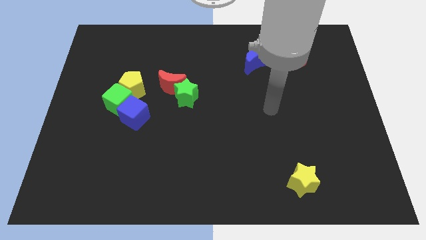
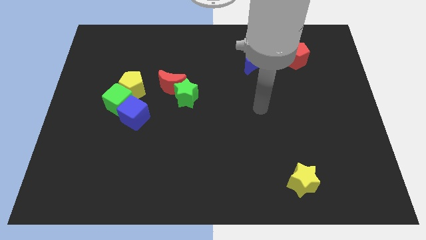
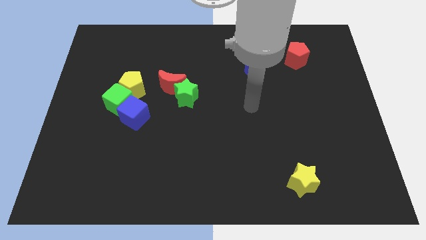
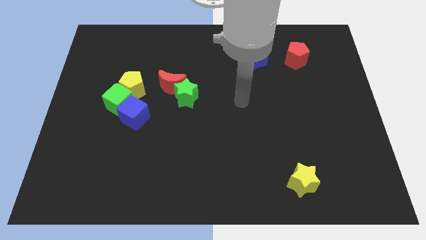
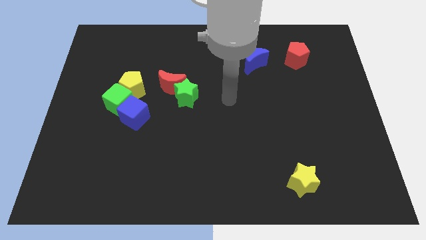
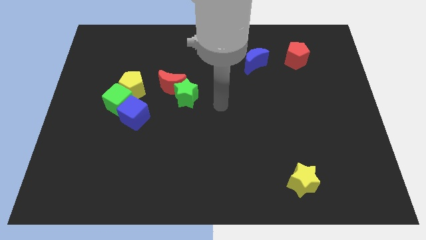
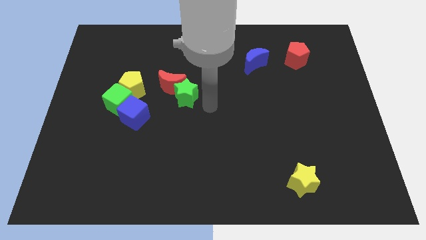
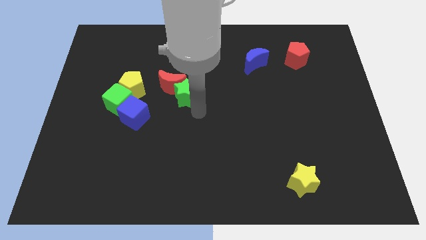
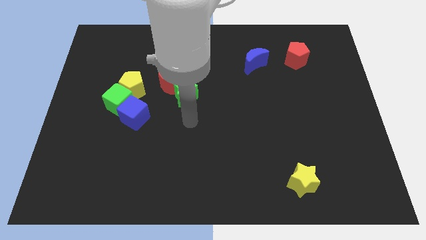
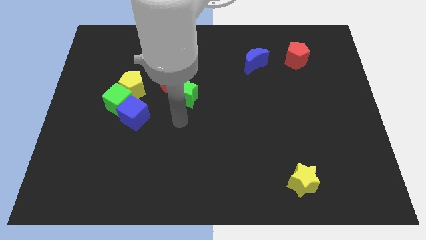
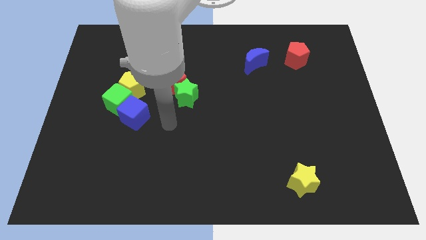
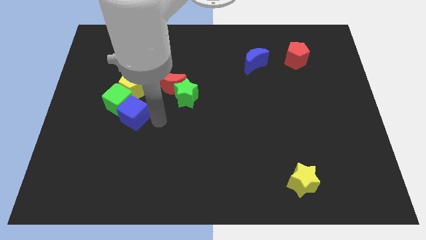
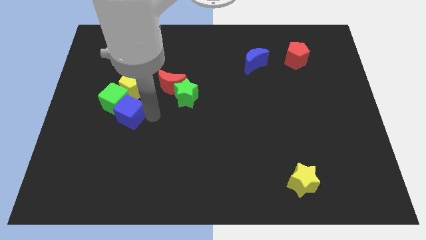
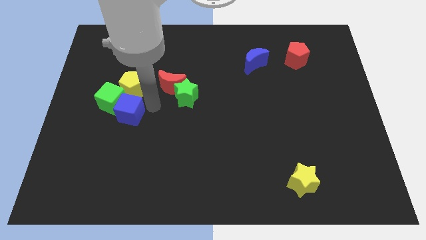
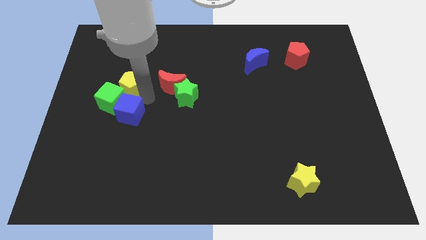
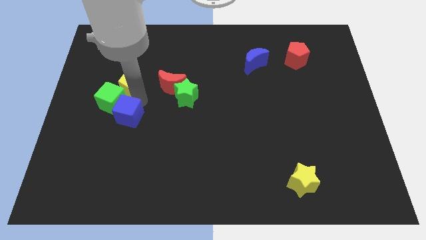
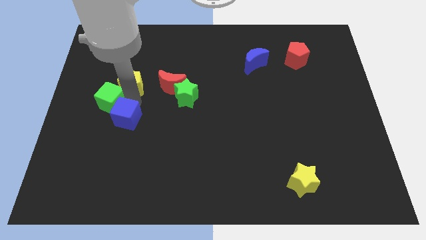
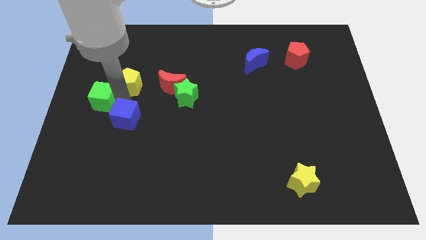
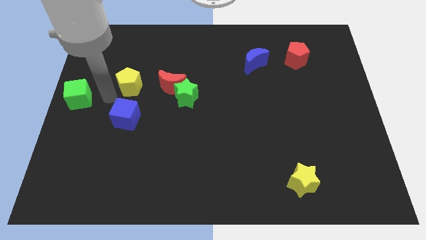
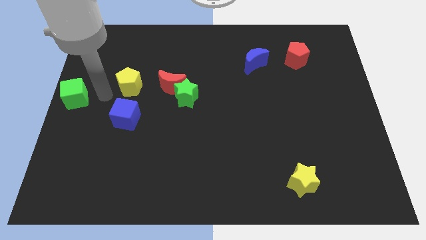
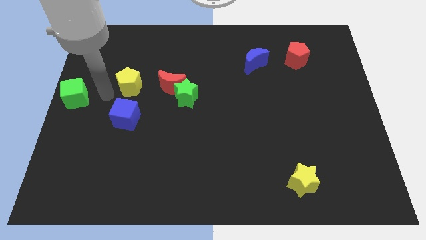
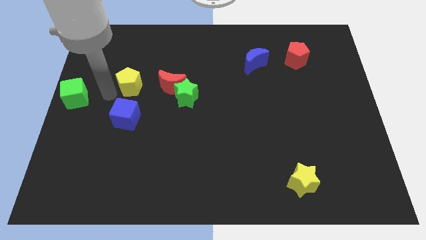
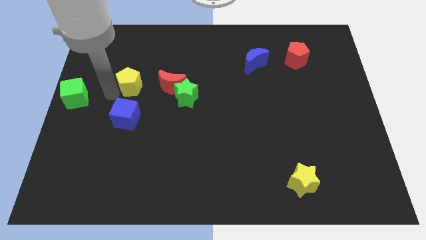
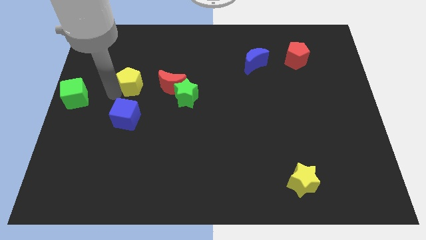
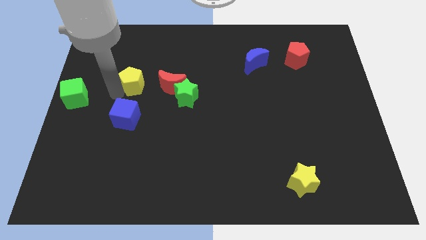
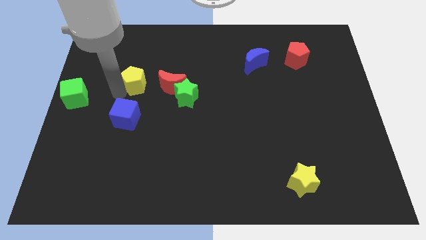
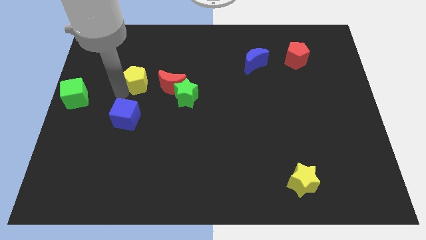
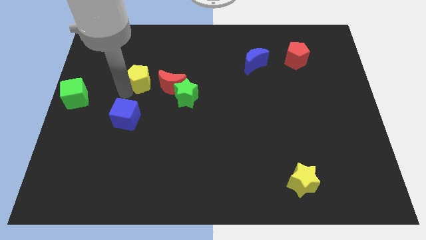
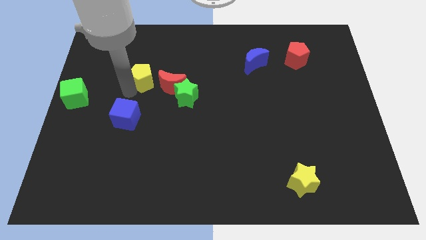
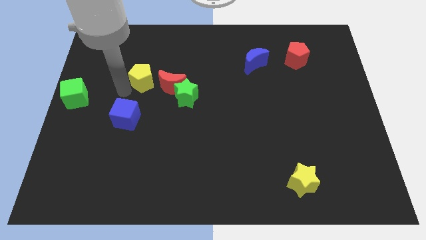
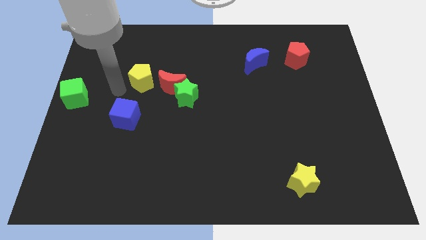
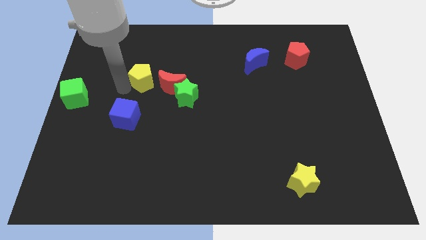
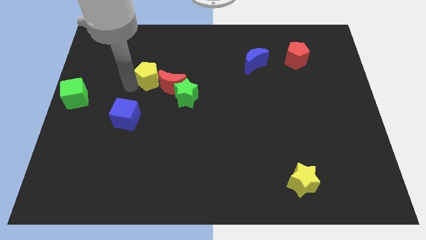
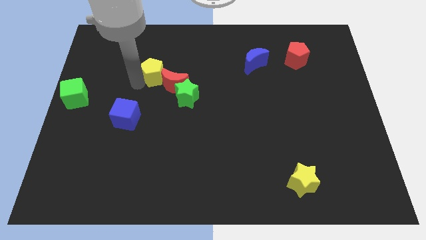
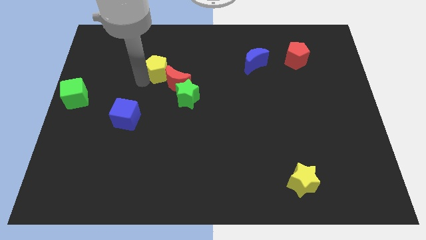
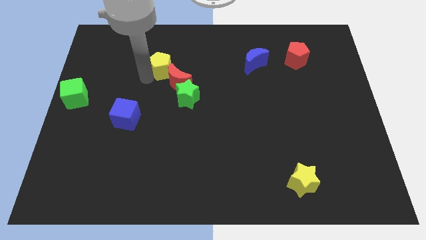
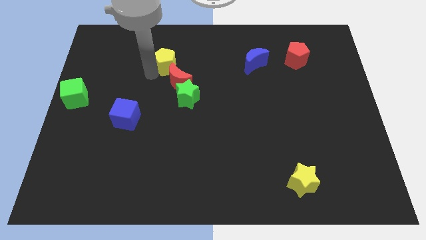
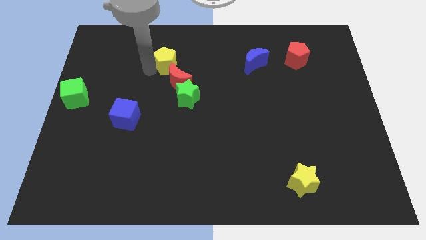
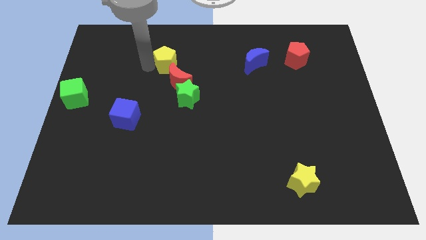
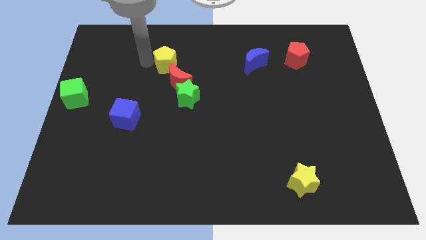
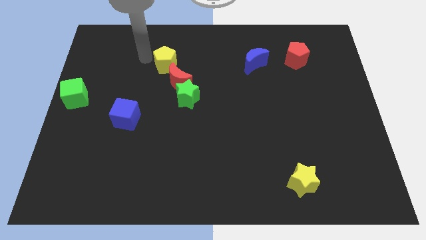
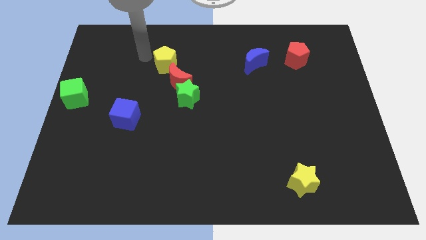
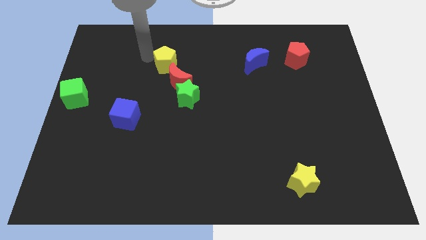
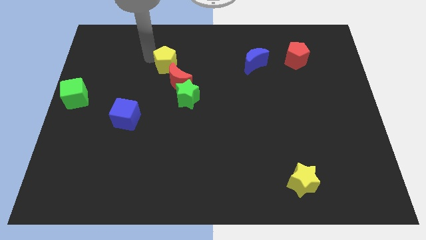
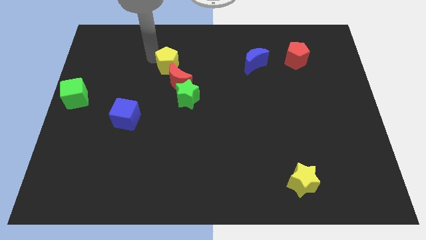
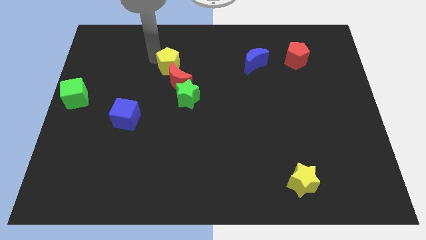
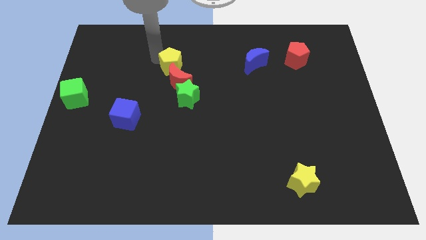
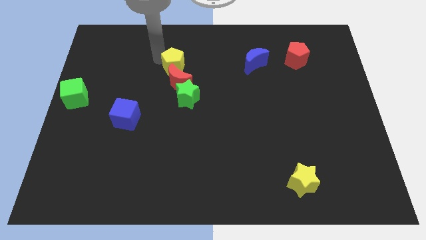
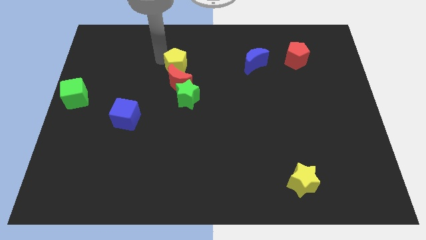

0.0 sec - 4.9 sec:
slide the yellow pentagon slightly right

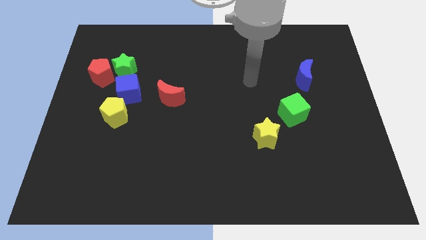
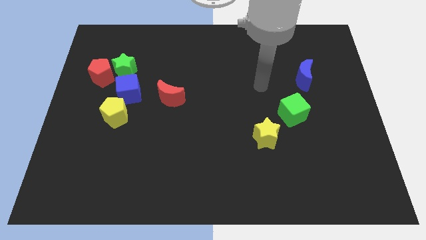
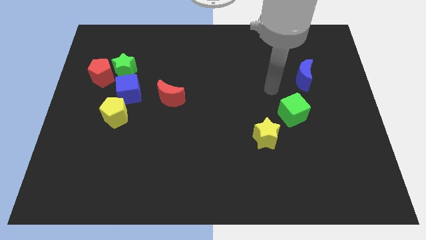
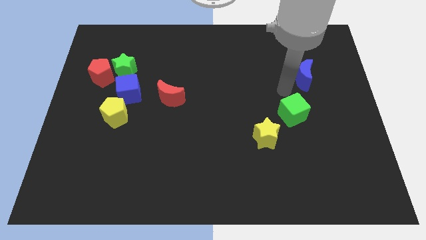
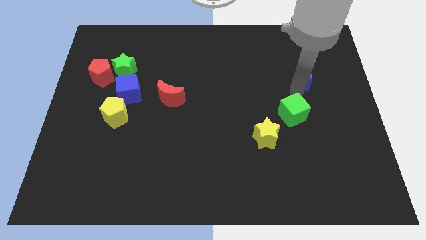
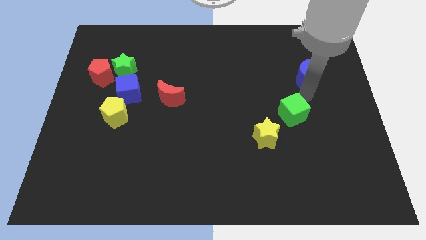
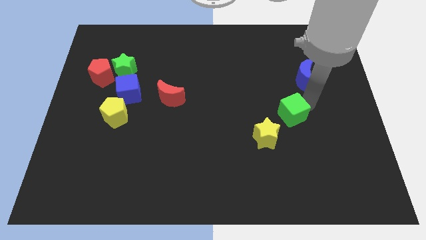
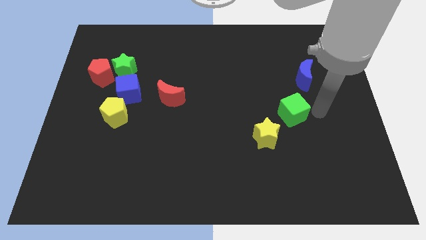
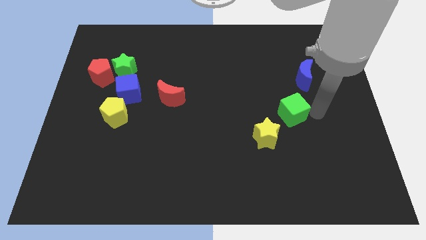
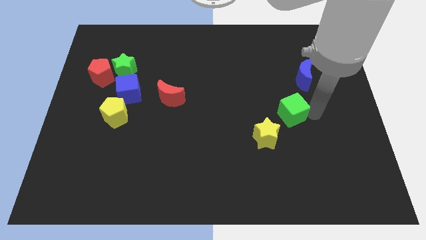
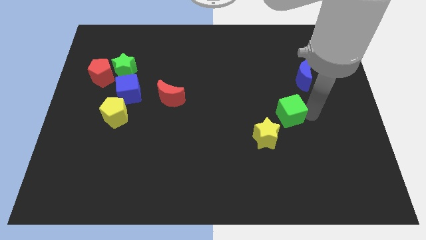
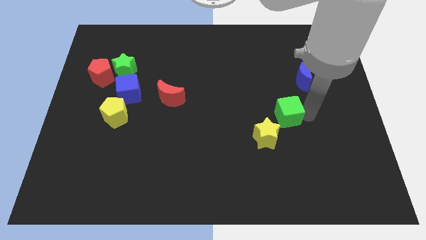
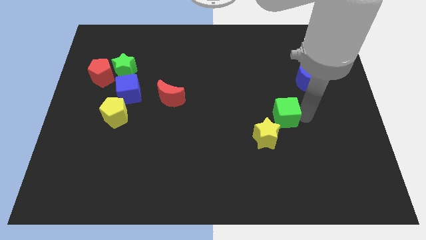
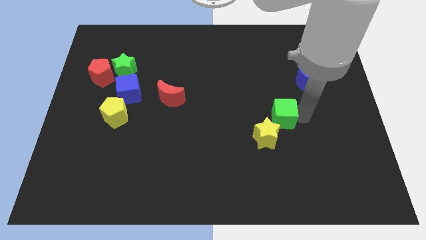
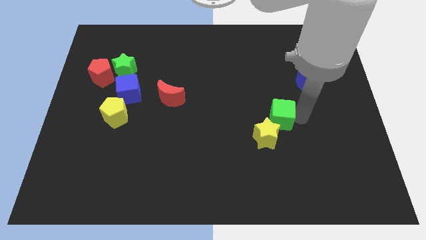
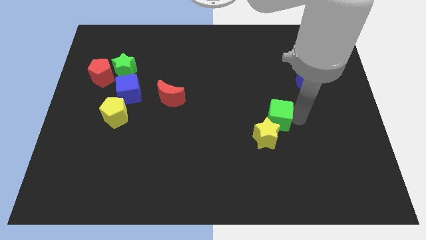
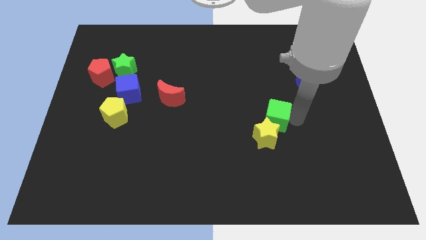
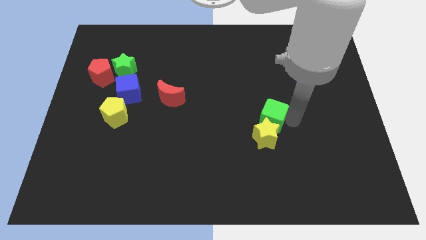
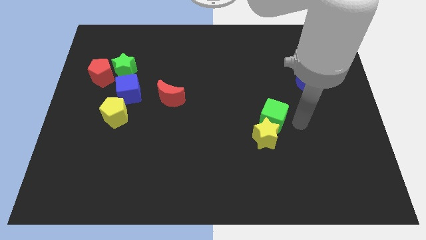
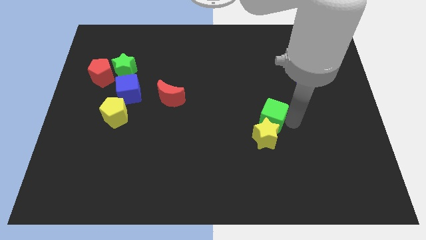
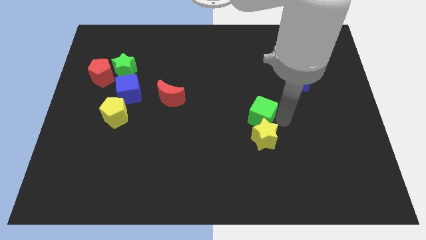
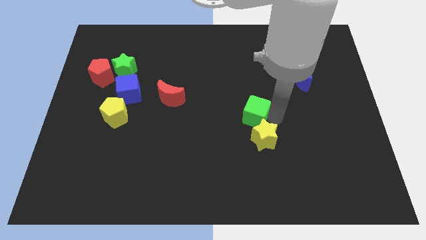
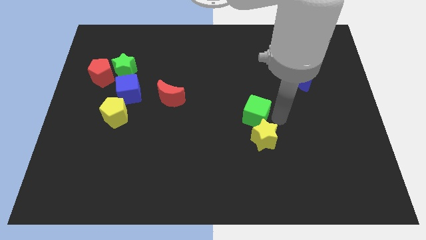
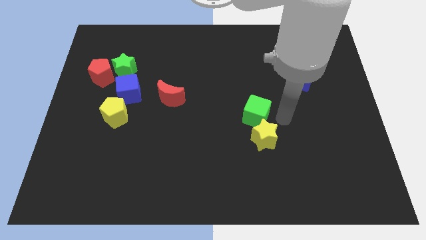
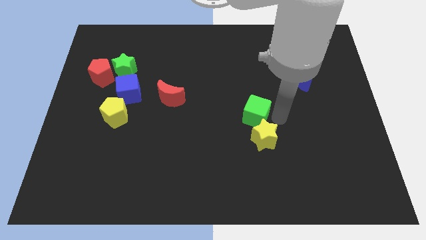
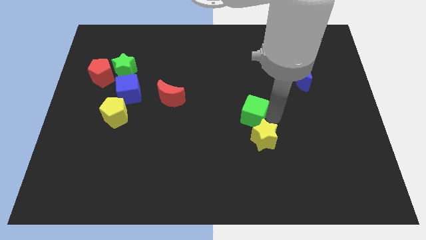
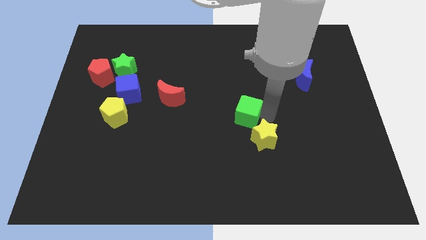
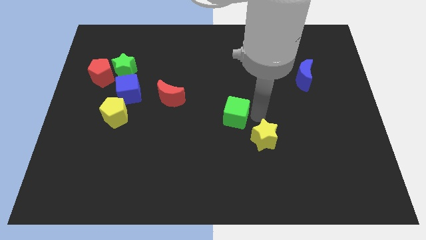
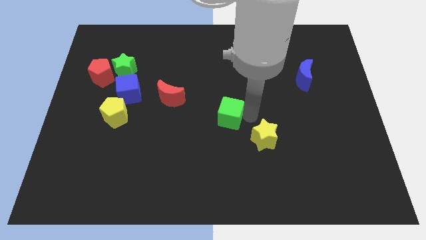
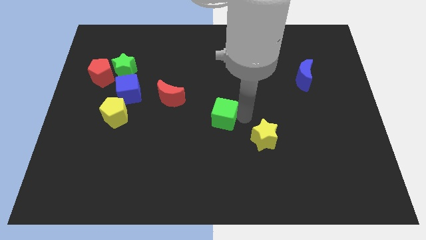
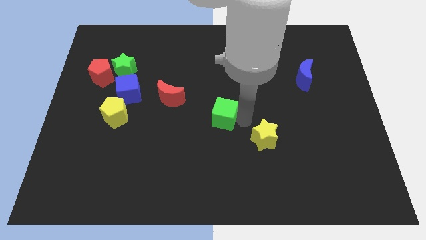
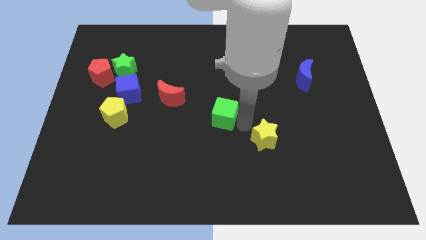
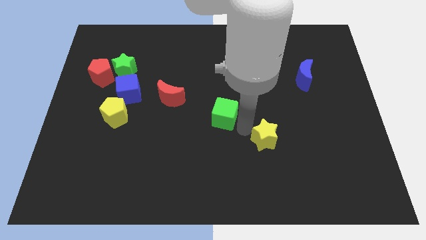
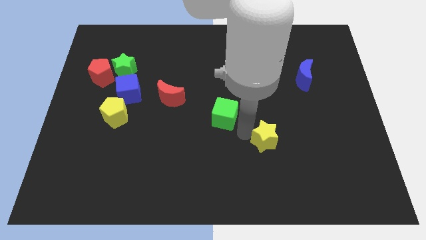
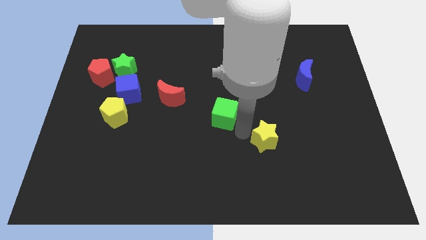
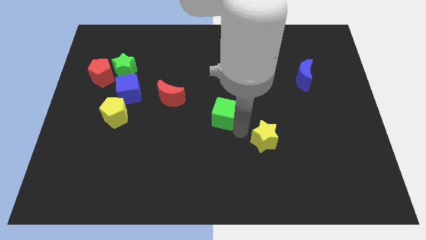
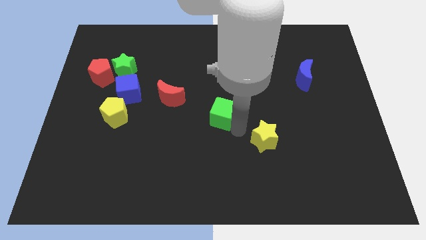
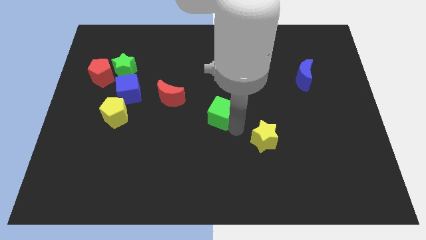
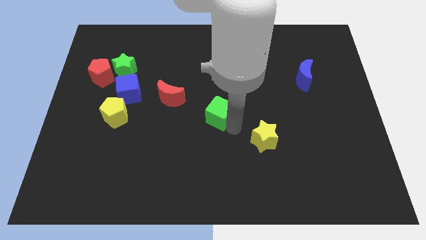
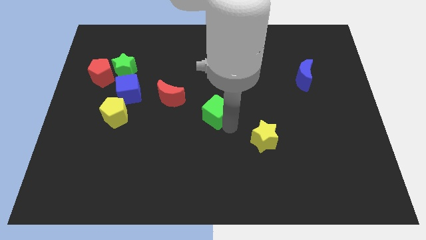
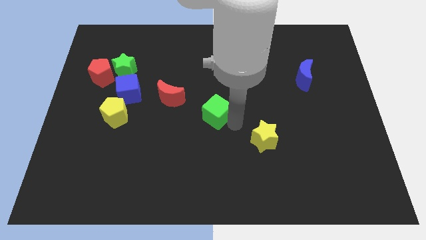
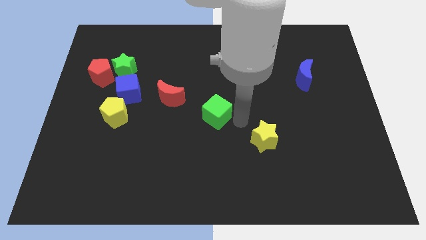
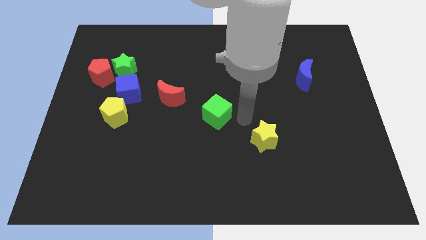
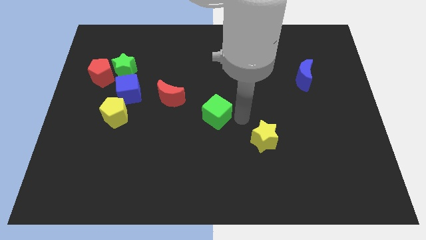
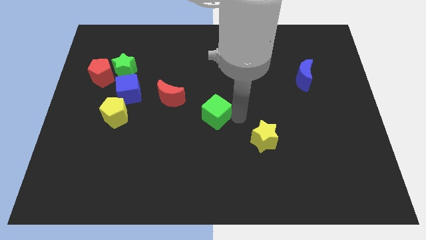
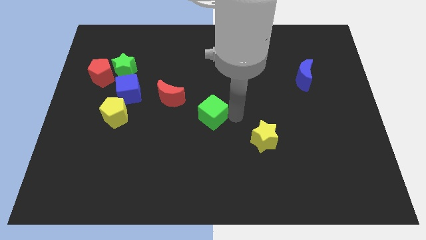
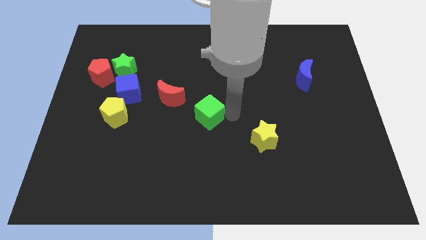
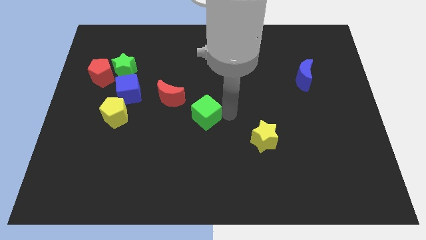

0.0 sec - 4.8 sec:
slide the green cube to the left
